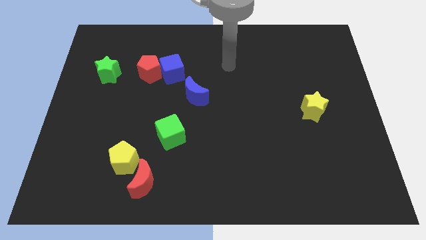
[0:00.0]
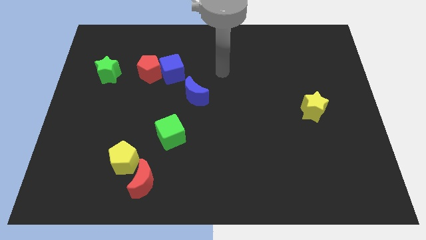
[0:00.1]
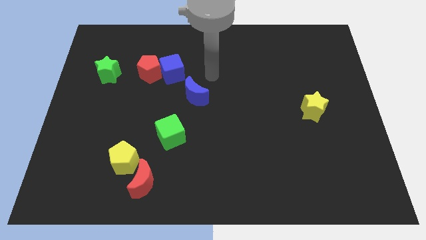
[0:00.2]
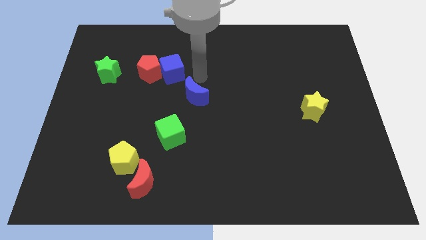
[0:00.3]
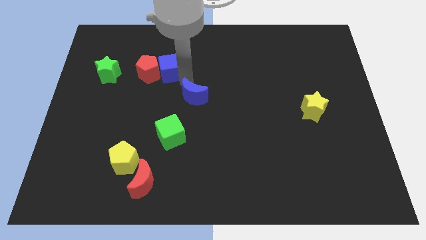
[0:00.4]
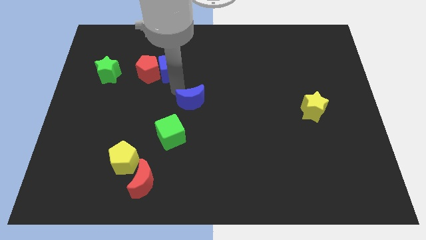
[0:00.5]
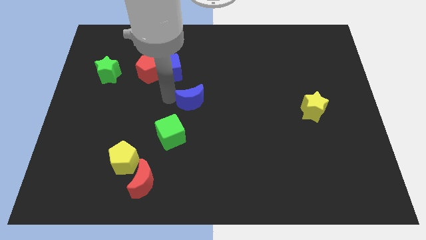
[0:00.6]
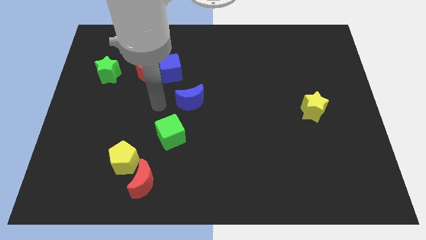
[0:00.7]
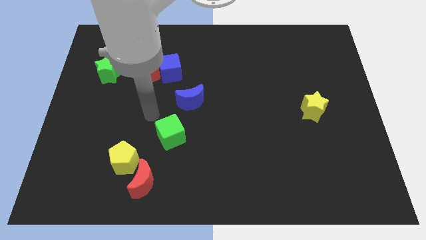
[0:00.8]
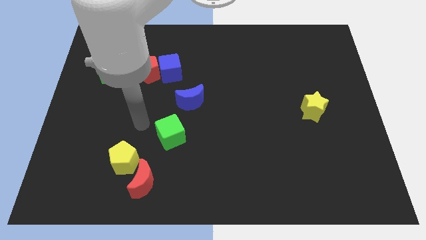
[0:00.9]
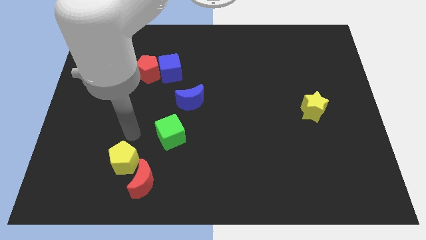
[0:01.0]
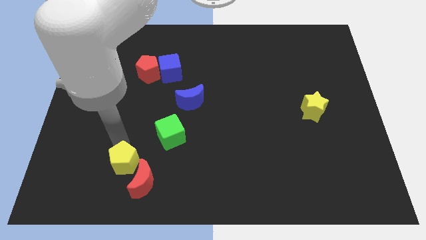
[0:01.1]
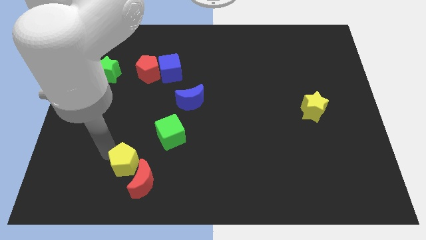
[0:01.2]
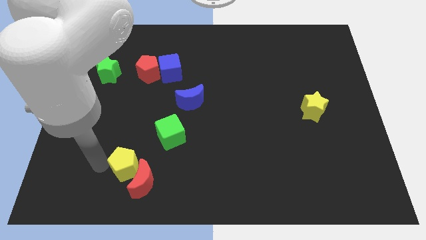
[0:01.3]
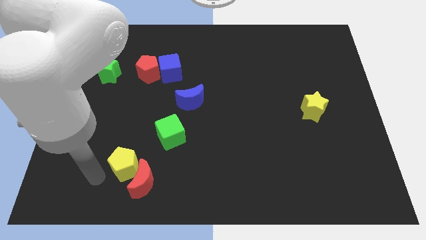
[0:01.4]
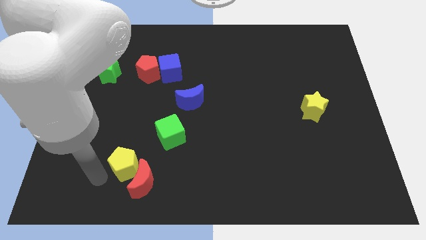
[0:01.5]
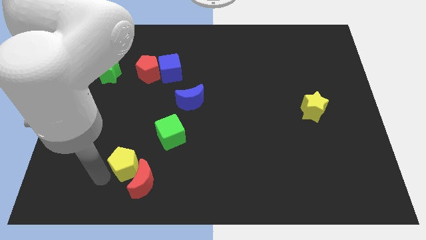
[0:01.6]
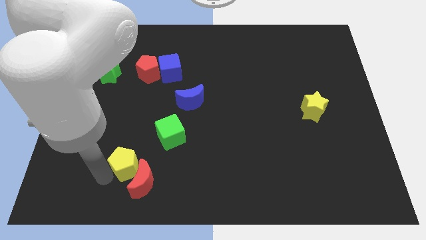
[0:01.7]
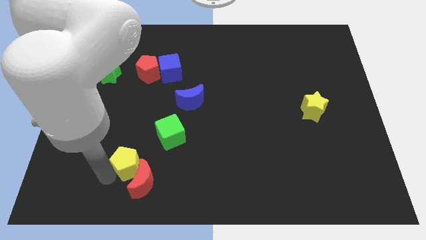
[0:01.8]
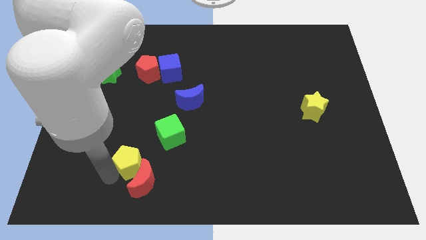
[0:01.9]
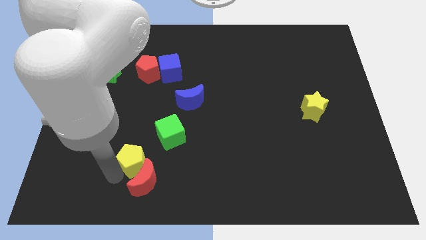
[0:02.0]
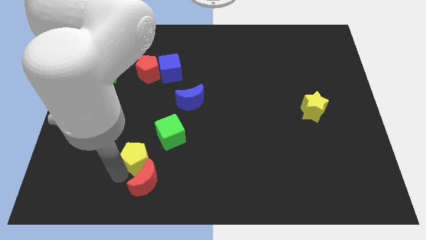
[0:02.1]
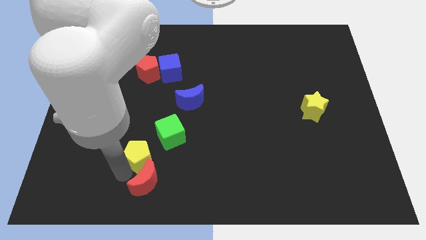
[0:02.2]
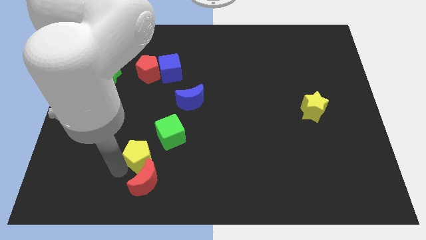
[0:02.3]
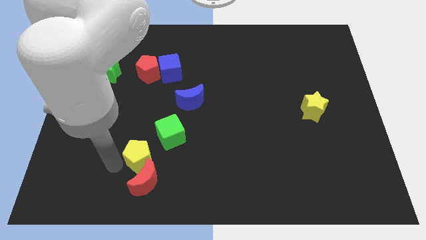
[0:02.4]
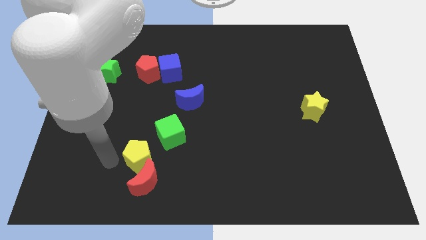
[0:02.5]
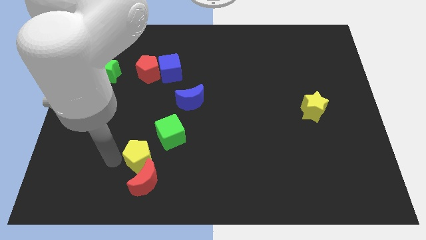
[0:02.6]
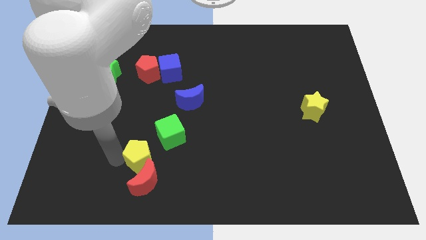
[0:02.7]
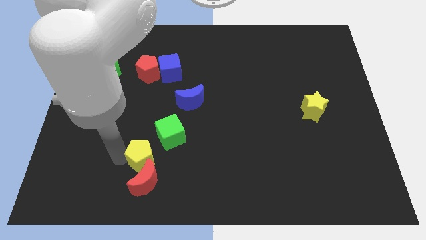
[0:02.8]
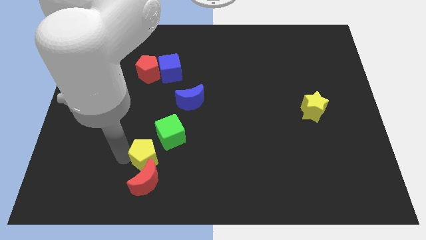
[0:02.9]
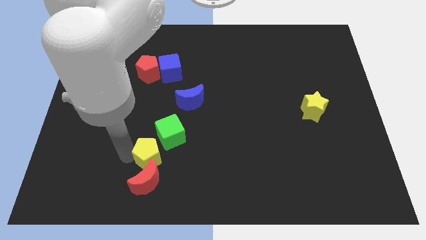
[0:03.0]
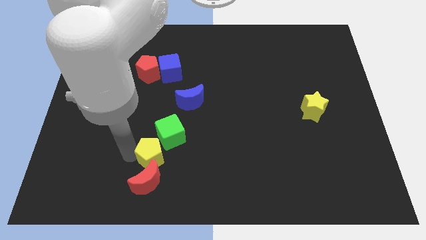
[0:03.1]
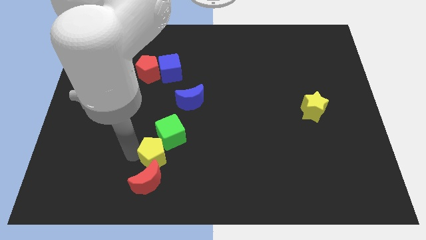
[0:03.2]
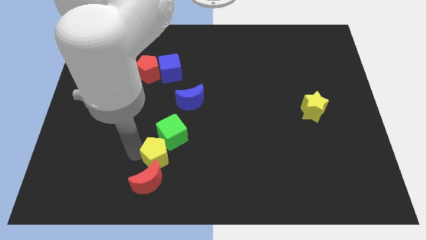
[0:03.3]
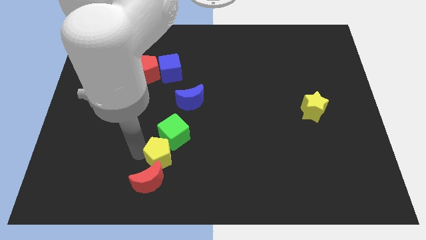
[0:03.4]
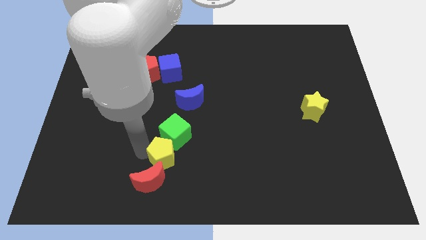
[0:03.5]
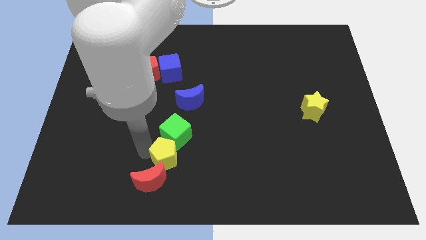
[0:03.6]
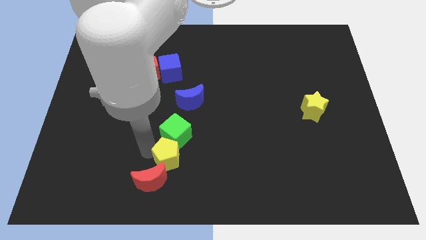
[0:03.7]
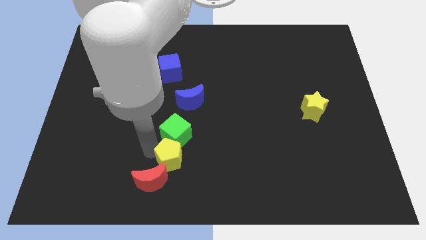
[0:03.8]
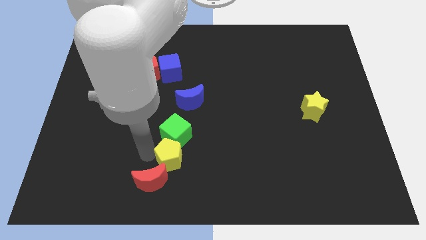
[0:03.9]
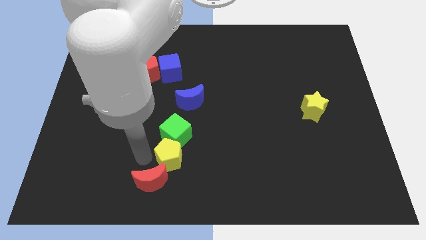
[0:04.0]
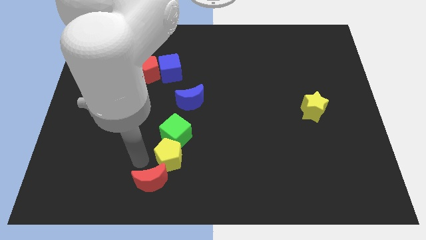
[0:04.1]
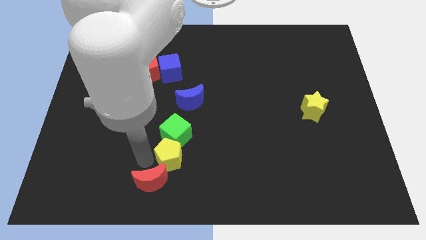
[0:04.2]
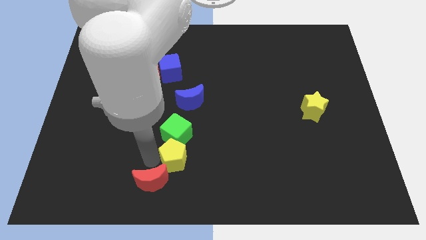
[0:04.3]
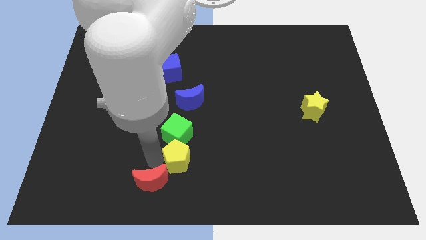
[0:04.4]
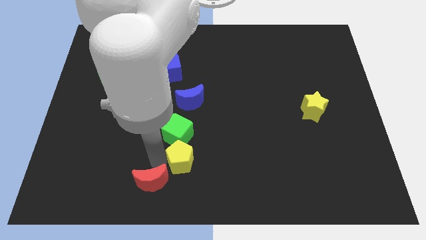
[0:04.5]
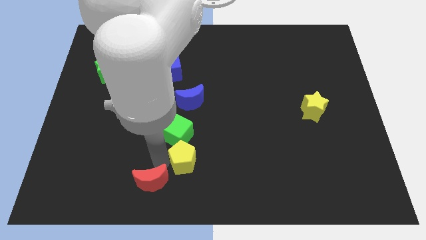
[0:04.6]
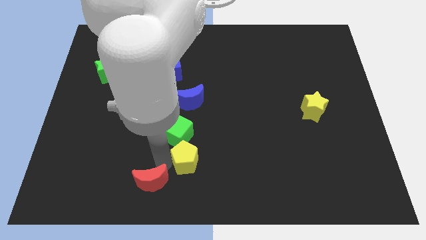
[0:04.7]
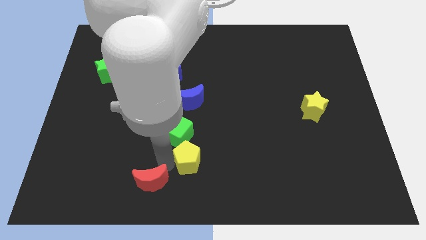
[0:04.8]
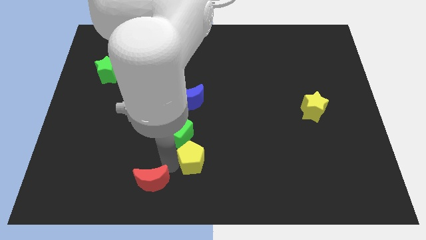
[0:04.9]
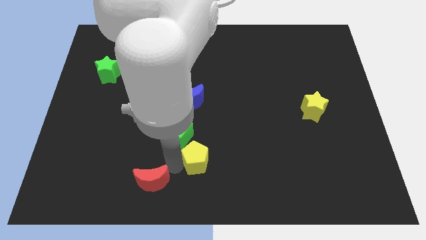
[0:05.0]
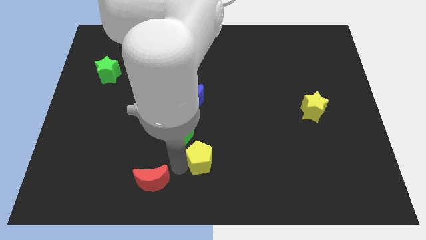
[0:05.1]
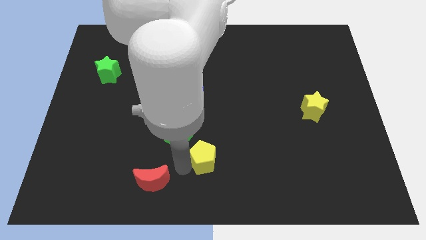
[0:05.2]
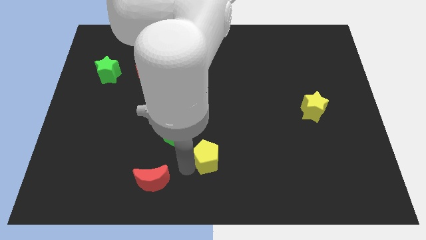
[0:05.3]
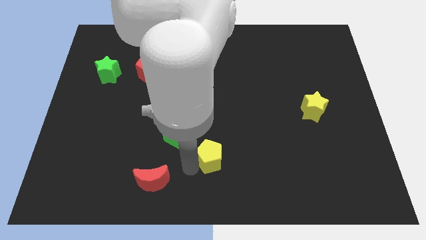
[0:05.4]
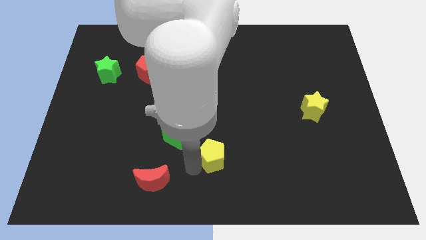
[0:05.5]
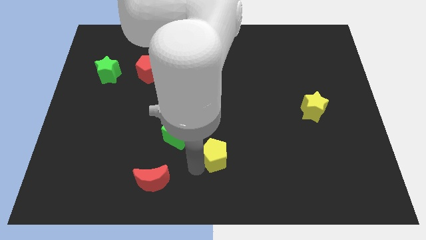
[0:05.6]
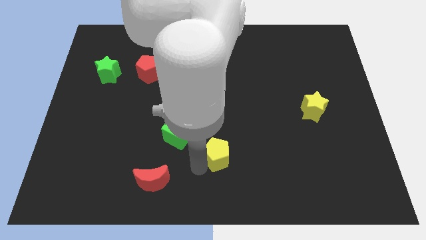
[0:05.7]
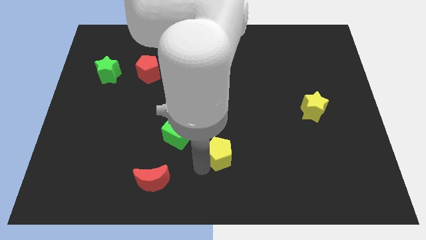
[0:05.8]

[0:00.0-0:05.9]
push the yellow pentagon to the right

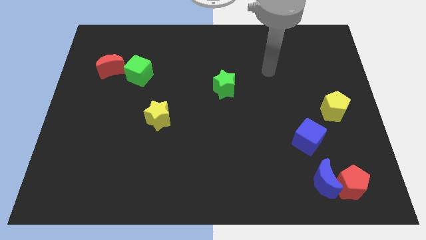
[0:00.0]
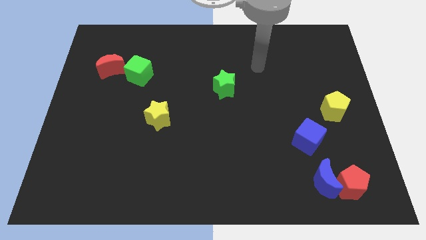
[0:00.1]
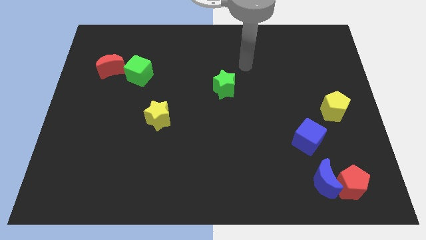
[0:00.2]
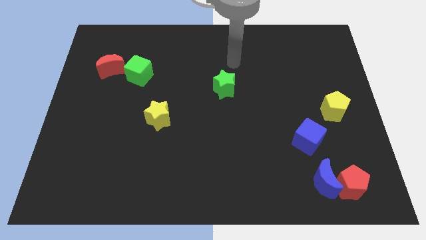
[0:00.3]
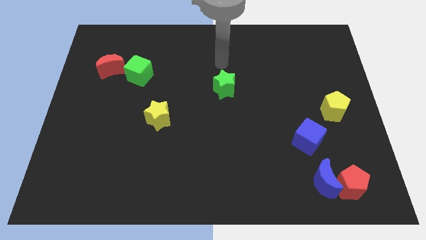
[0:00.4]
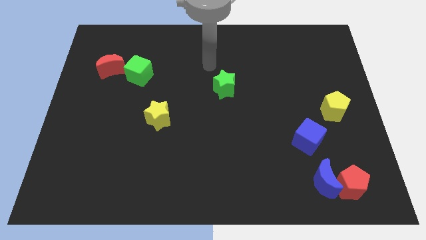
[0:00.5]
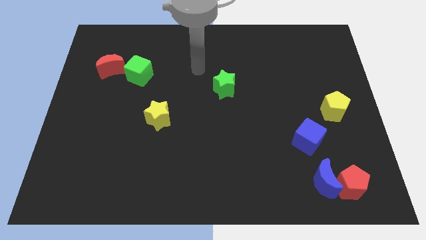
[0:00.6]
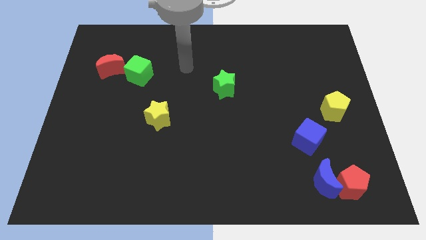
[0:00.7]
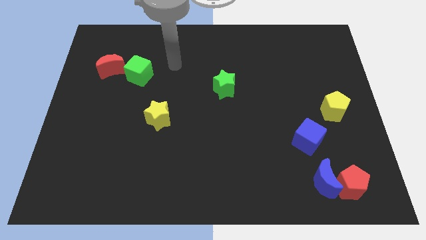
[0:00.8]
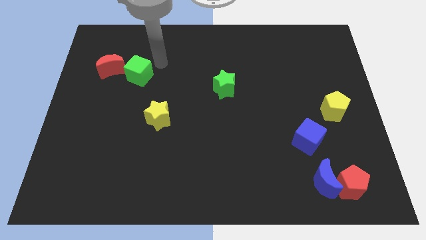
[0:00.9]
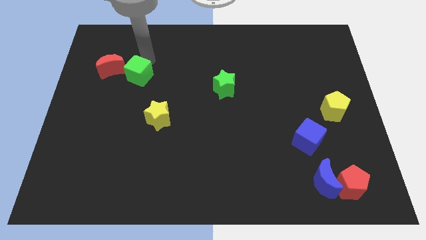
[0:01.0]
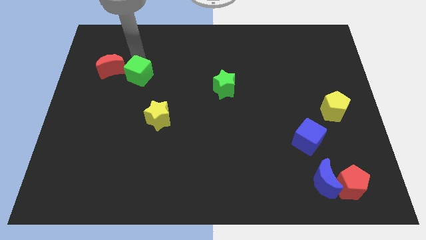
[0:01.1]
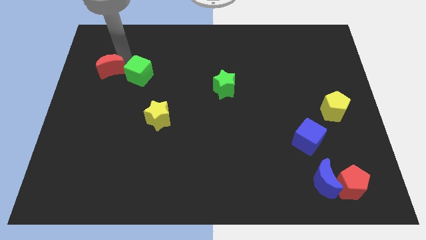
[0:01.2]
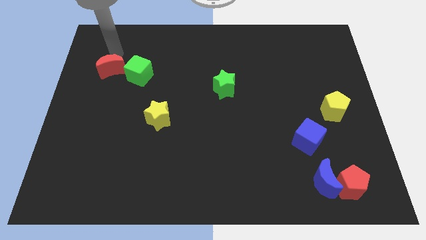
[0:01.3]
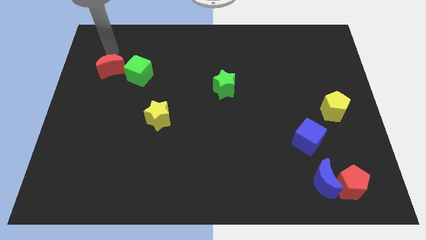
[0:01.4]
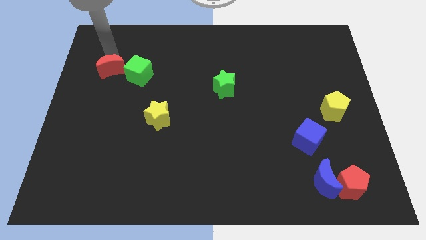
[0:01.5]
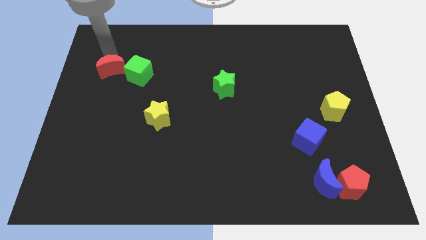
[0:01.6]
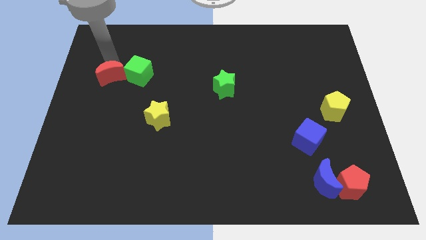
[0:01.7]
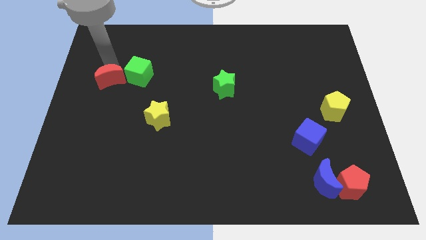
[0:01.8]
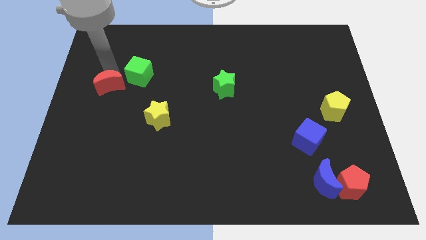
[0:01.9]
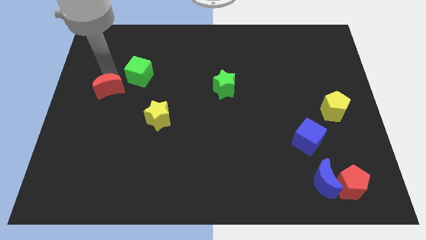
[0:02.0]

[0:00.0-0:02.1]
move the red moon down a bit

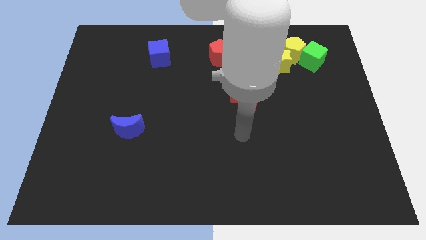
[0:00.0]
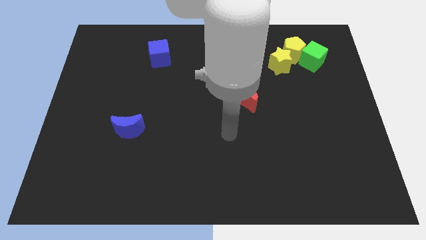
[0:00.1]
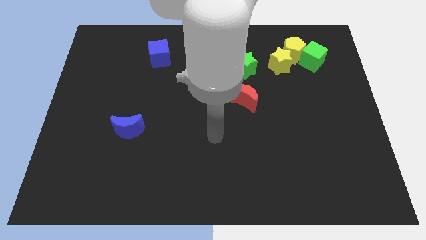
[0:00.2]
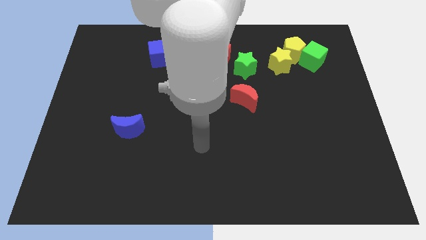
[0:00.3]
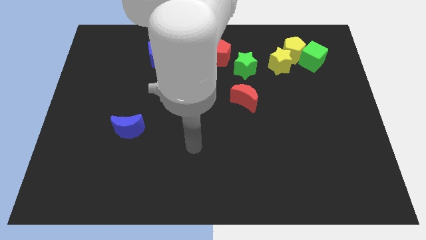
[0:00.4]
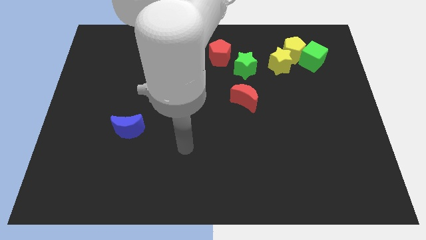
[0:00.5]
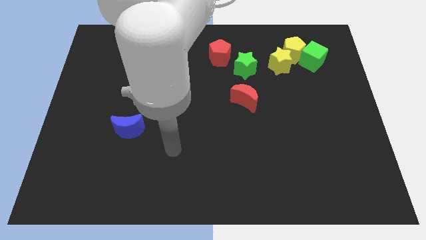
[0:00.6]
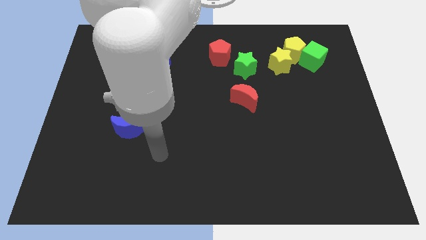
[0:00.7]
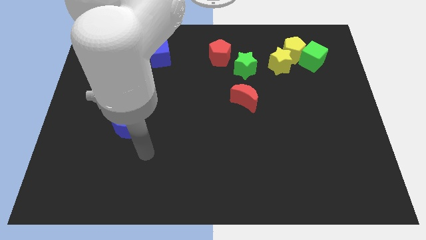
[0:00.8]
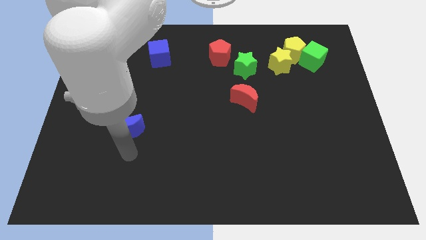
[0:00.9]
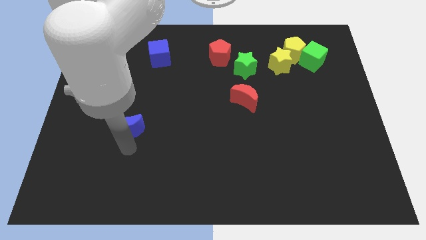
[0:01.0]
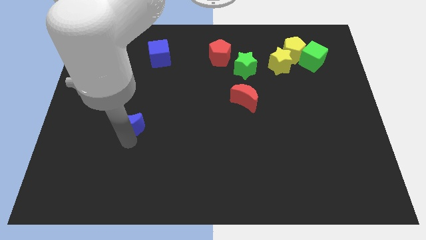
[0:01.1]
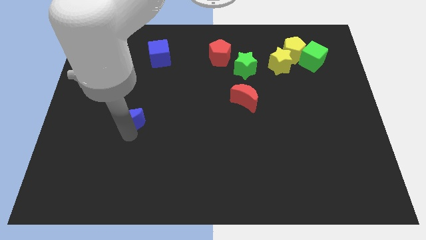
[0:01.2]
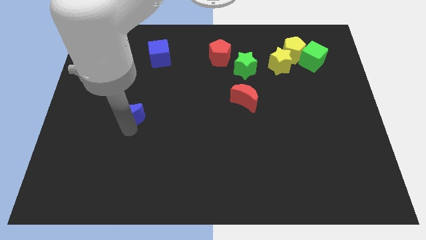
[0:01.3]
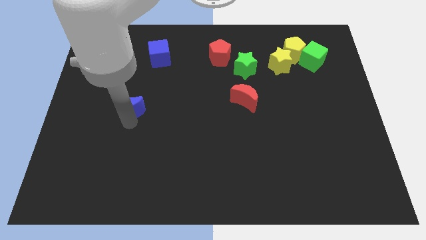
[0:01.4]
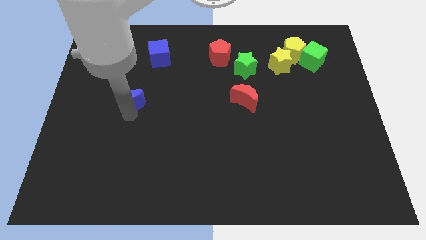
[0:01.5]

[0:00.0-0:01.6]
slide the blue moon a little upwards
